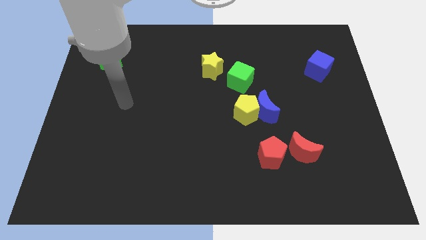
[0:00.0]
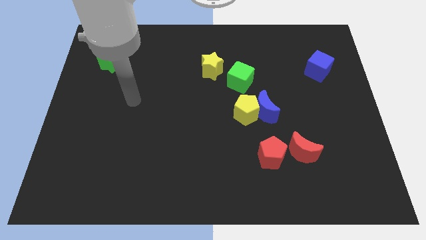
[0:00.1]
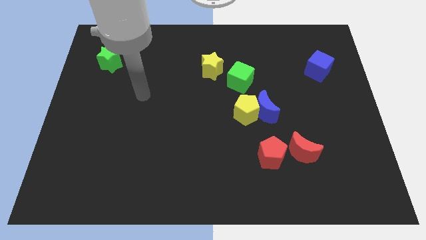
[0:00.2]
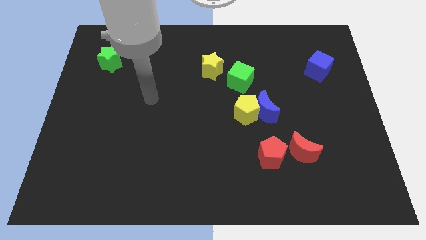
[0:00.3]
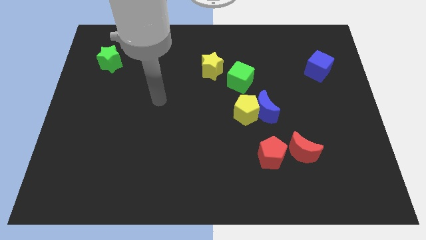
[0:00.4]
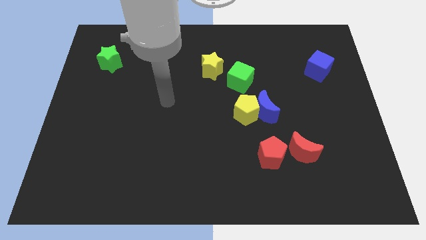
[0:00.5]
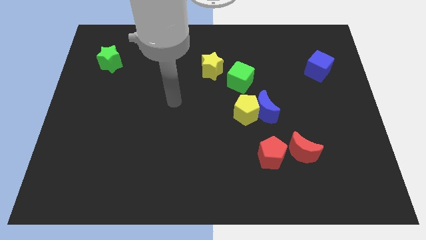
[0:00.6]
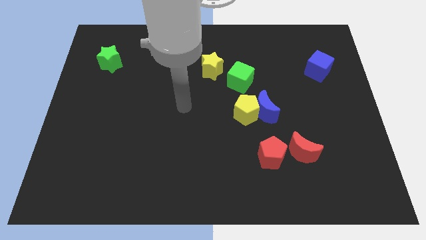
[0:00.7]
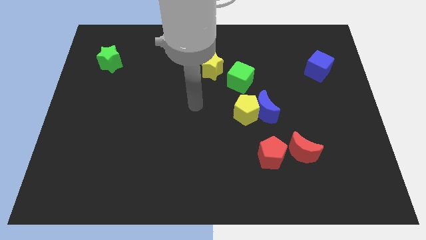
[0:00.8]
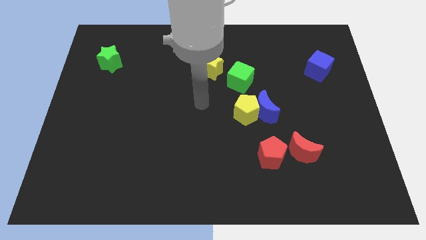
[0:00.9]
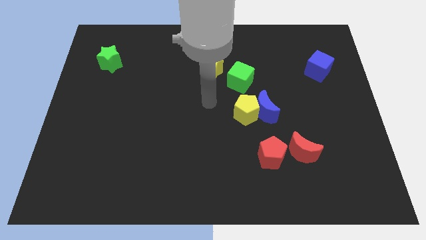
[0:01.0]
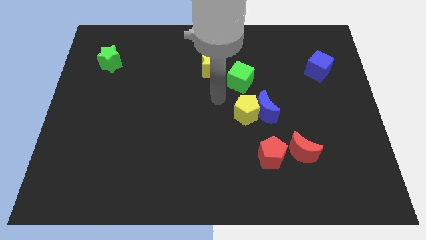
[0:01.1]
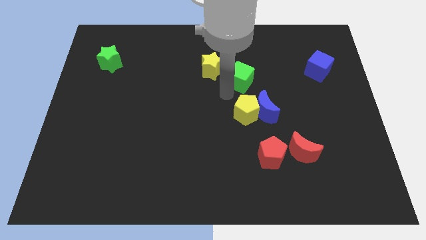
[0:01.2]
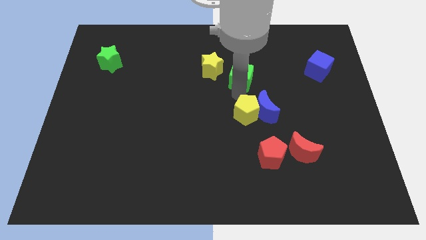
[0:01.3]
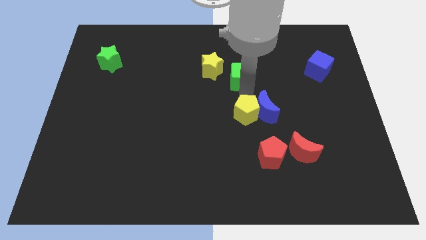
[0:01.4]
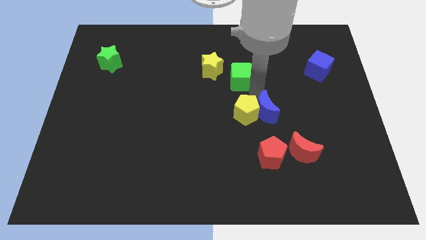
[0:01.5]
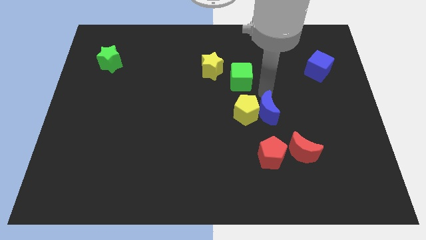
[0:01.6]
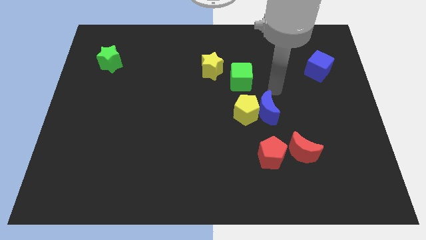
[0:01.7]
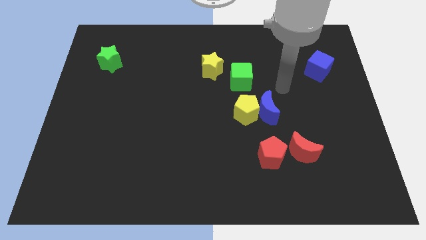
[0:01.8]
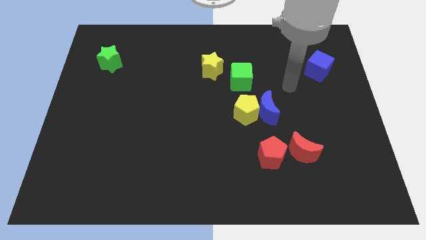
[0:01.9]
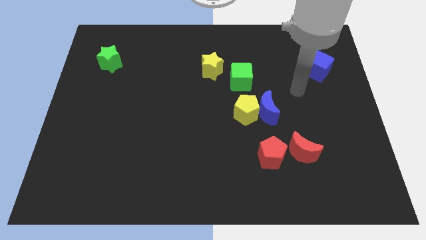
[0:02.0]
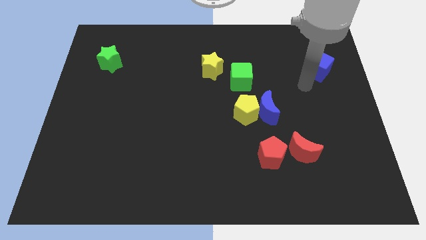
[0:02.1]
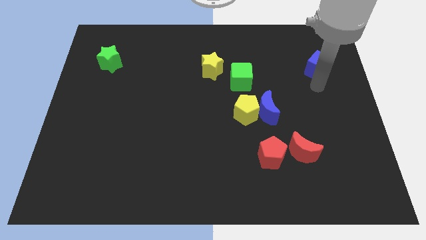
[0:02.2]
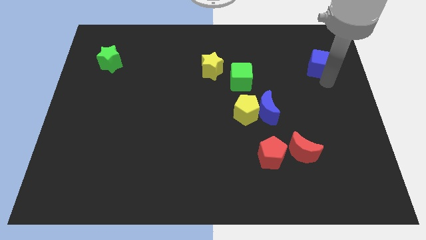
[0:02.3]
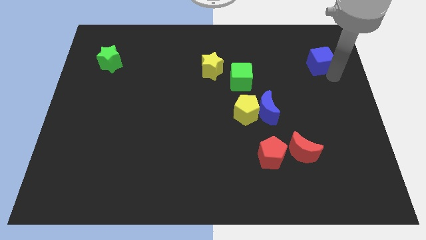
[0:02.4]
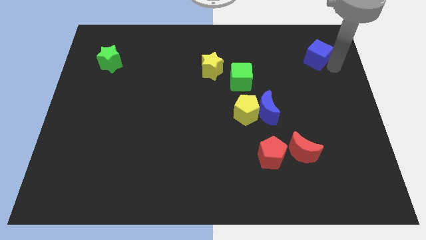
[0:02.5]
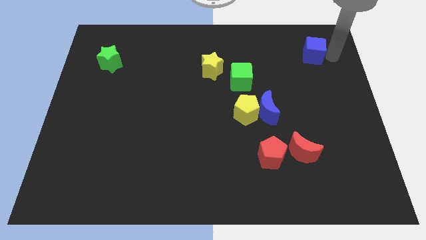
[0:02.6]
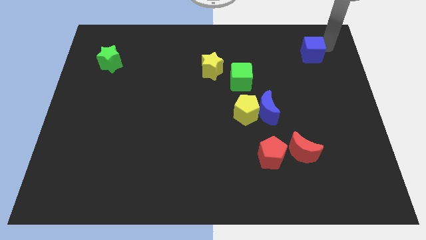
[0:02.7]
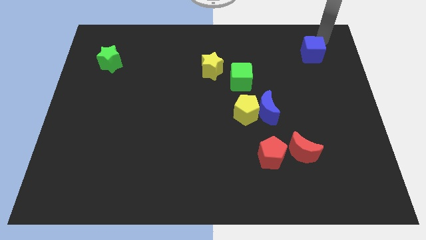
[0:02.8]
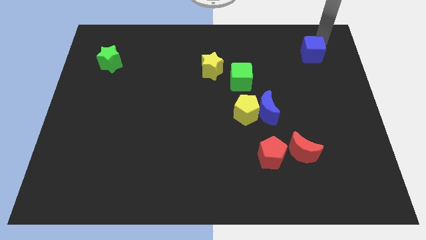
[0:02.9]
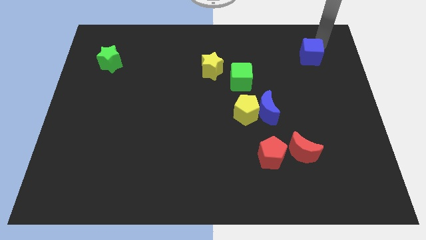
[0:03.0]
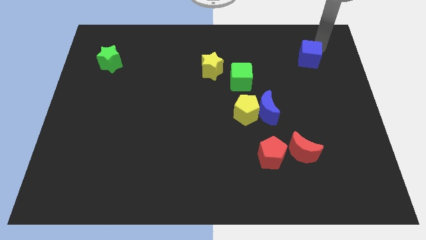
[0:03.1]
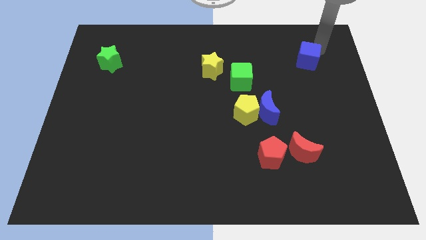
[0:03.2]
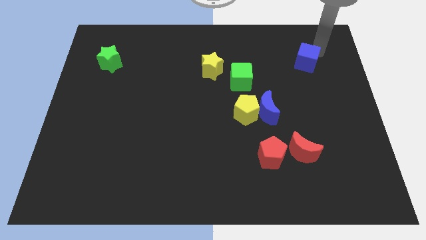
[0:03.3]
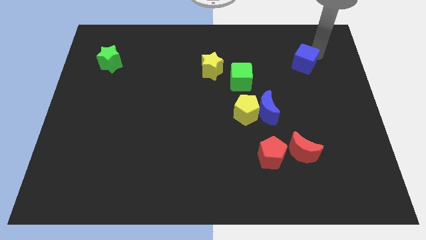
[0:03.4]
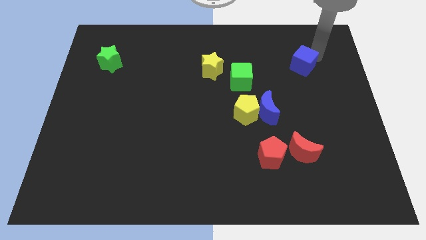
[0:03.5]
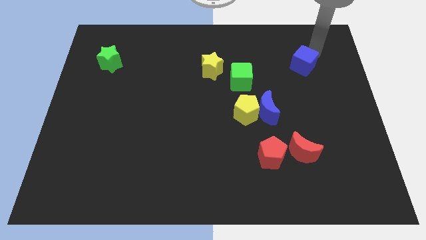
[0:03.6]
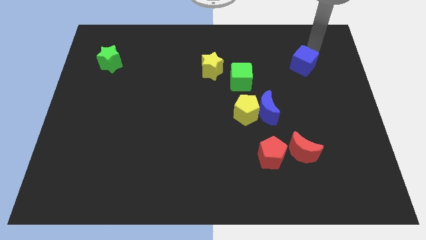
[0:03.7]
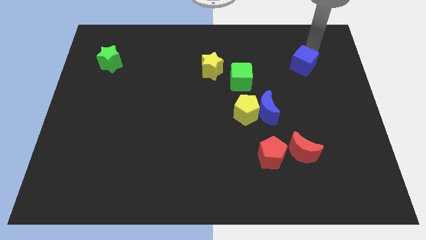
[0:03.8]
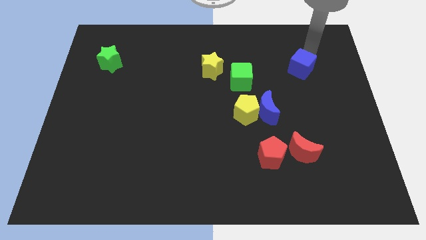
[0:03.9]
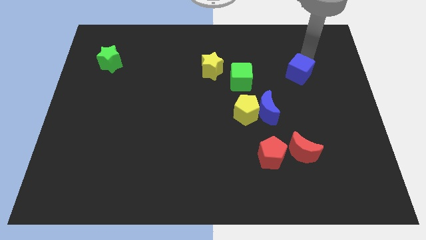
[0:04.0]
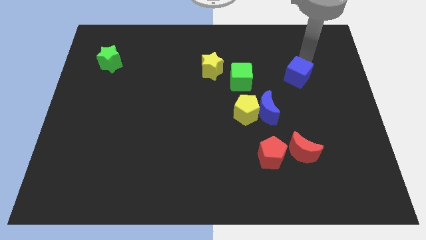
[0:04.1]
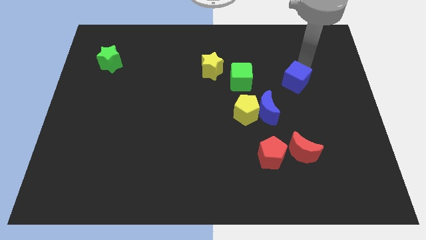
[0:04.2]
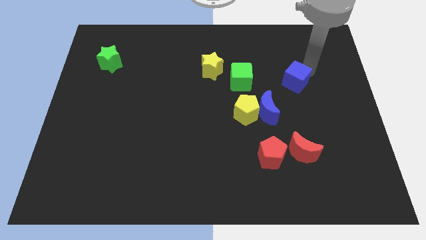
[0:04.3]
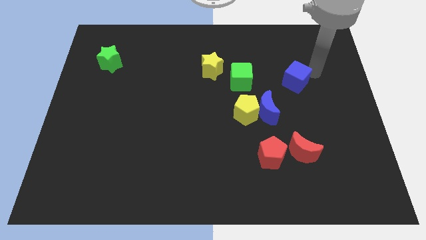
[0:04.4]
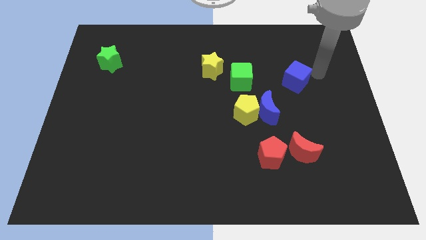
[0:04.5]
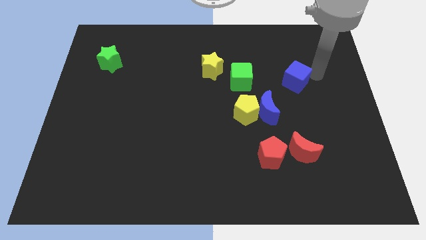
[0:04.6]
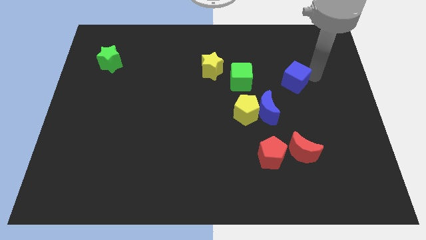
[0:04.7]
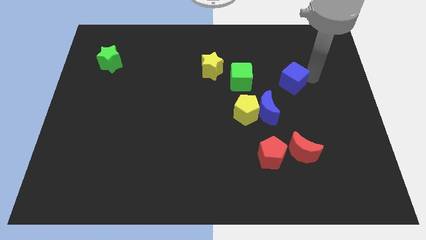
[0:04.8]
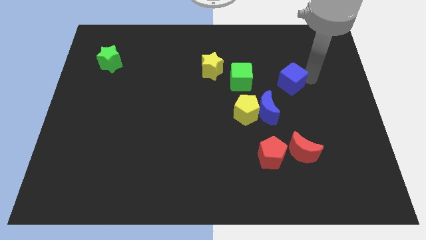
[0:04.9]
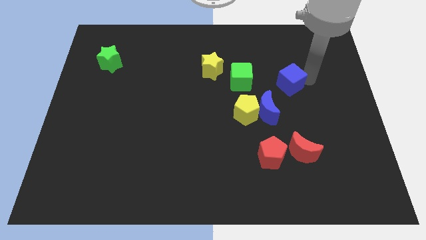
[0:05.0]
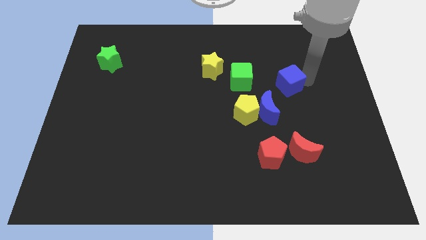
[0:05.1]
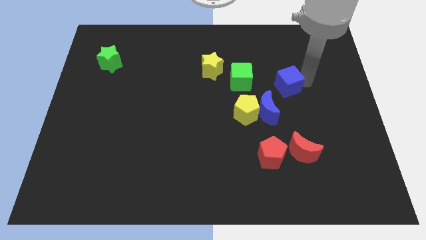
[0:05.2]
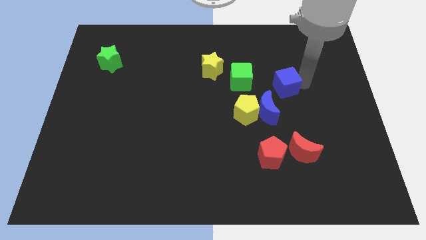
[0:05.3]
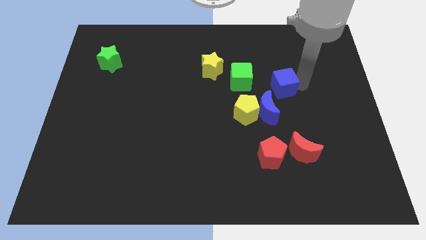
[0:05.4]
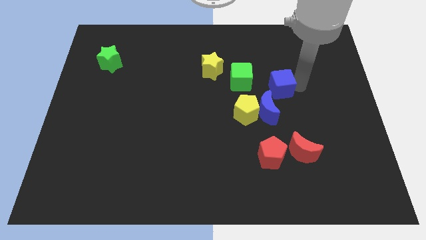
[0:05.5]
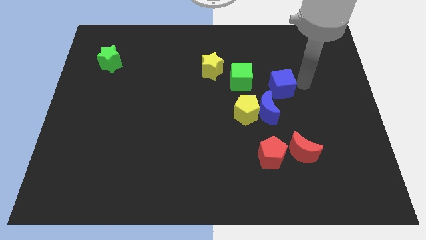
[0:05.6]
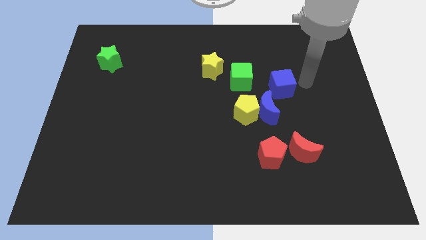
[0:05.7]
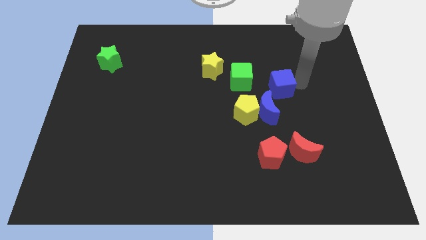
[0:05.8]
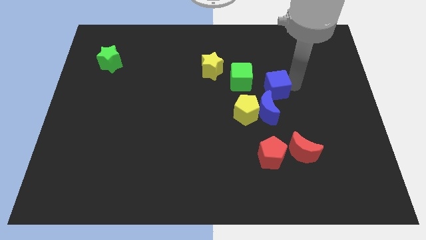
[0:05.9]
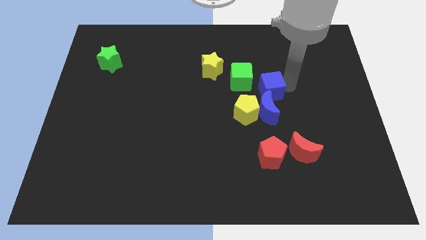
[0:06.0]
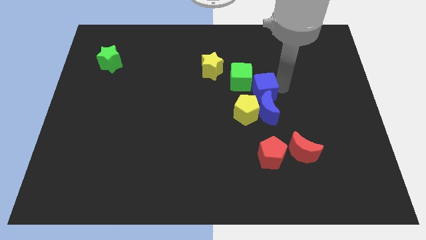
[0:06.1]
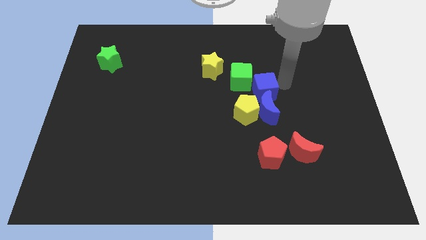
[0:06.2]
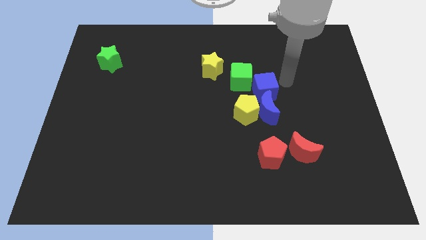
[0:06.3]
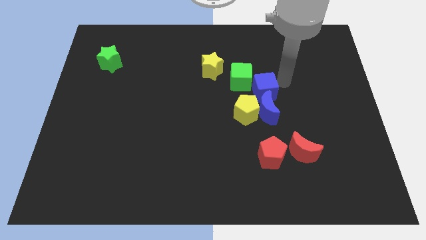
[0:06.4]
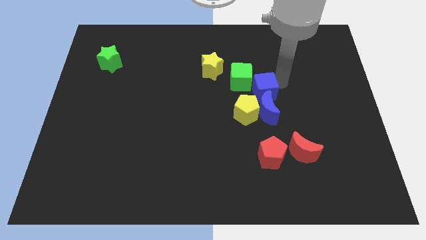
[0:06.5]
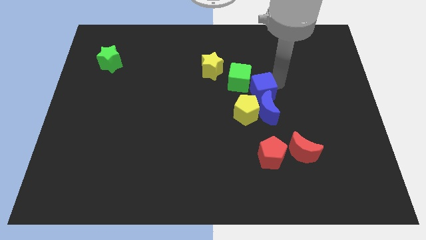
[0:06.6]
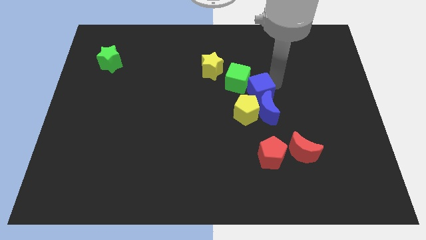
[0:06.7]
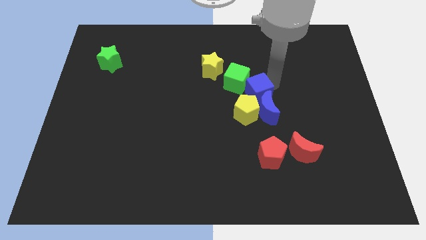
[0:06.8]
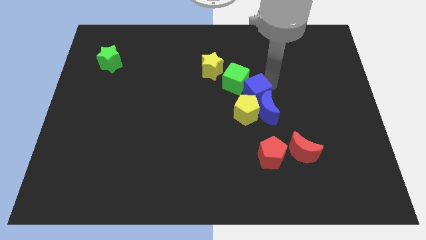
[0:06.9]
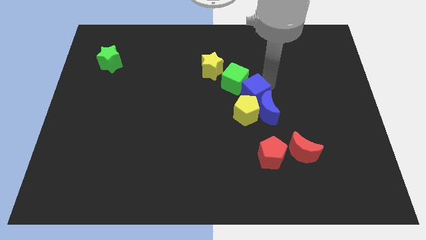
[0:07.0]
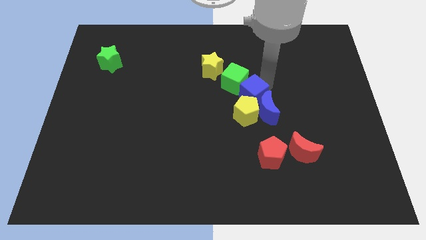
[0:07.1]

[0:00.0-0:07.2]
push the blue cube next to the yellow pentagon

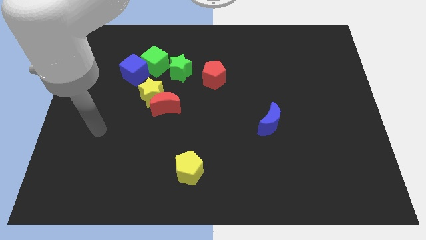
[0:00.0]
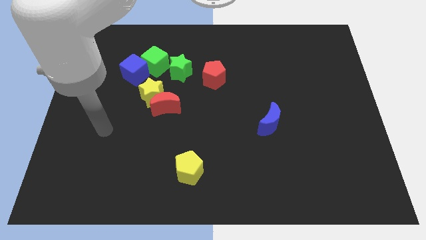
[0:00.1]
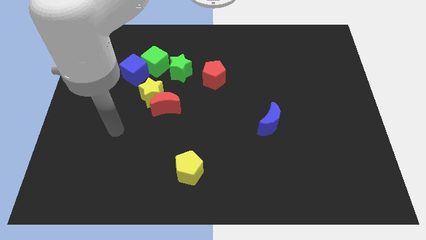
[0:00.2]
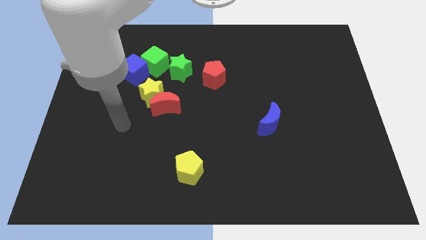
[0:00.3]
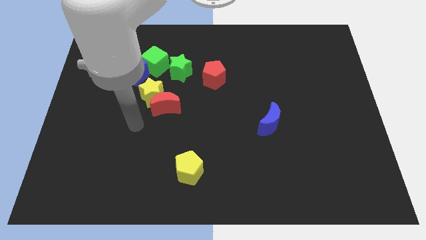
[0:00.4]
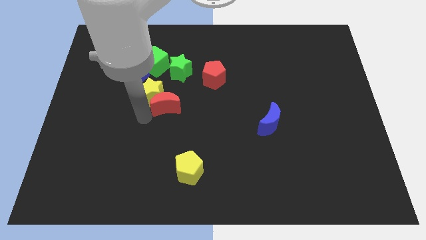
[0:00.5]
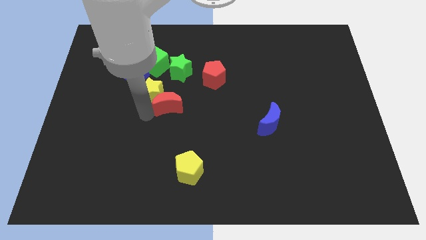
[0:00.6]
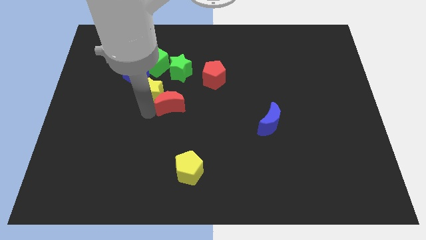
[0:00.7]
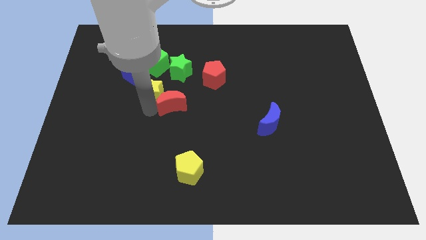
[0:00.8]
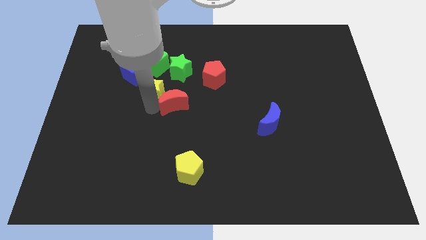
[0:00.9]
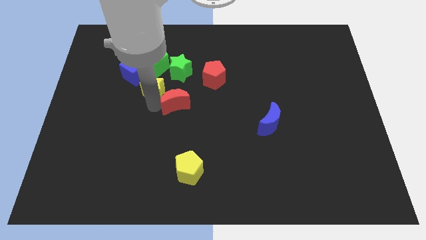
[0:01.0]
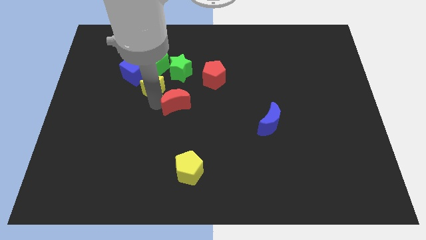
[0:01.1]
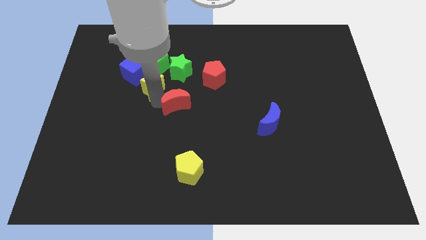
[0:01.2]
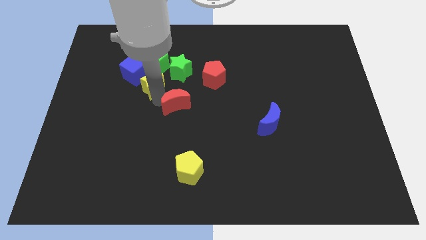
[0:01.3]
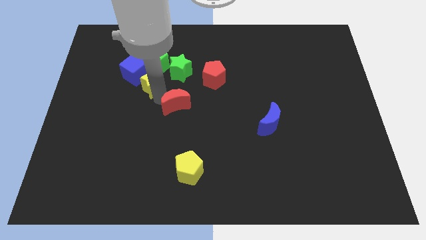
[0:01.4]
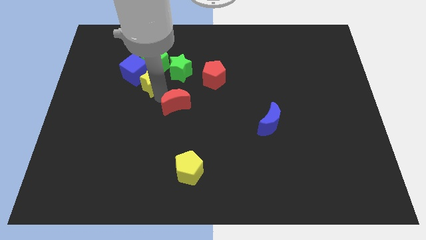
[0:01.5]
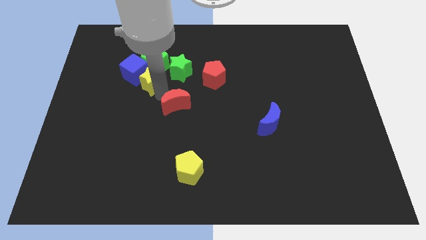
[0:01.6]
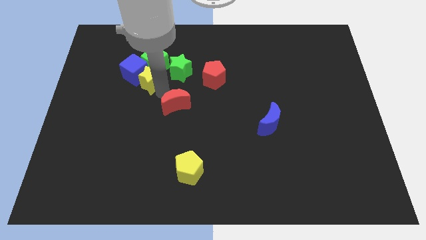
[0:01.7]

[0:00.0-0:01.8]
push the yellow star towards the green cube
